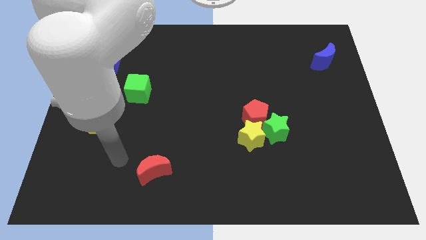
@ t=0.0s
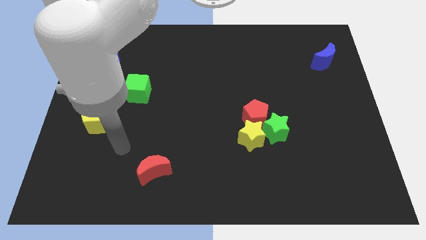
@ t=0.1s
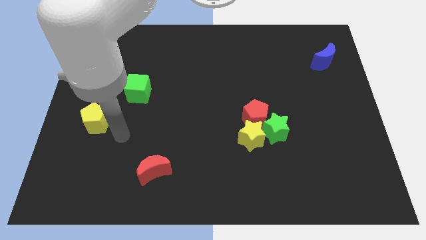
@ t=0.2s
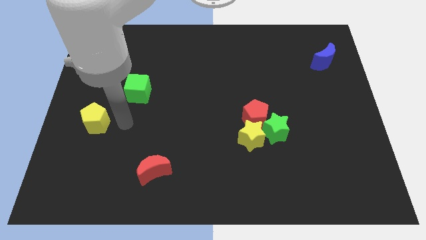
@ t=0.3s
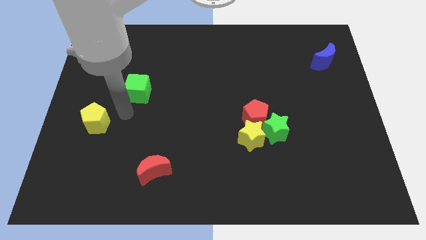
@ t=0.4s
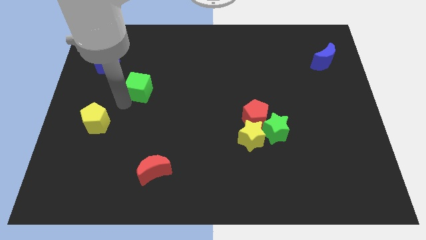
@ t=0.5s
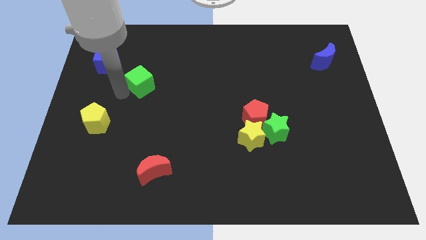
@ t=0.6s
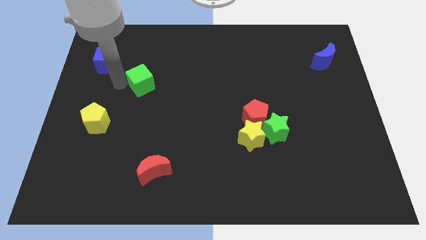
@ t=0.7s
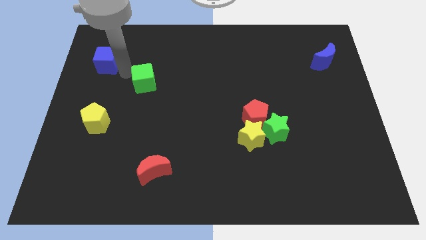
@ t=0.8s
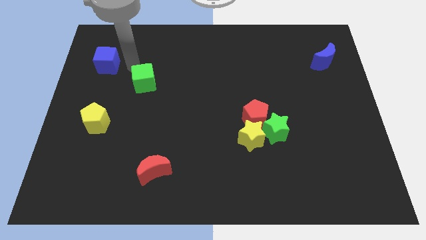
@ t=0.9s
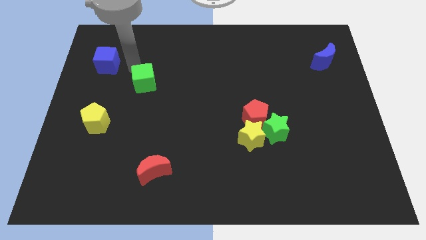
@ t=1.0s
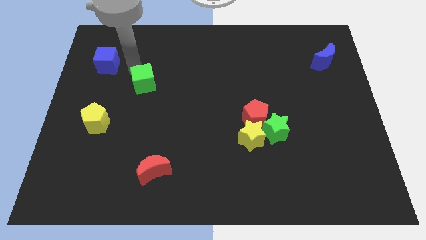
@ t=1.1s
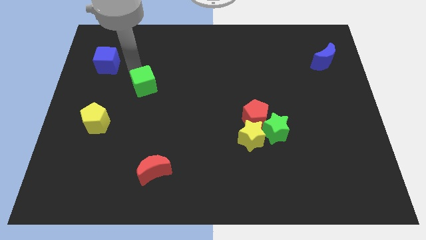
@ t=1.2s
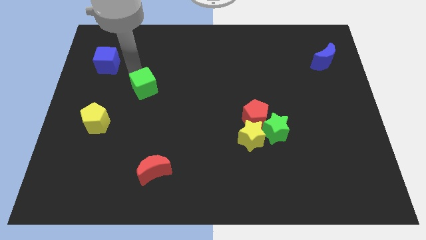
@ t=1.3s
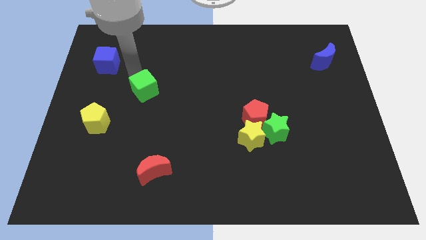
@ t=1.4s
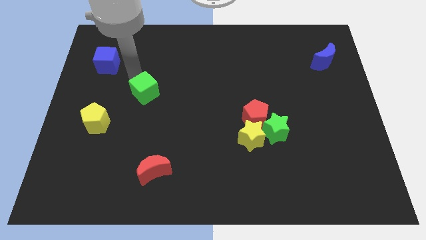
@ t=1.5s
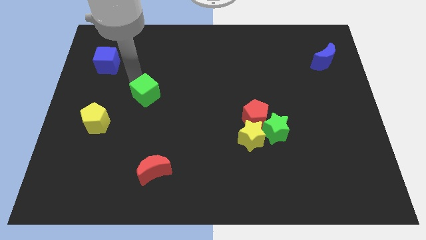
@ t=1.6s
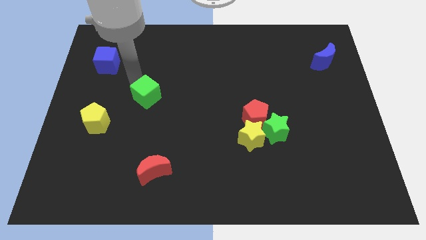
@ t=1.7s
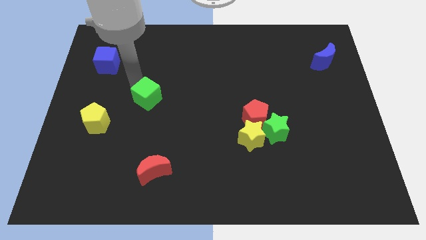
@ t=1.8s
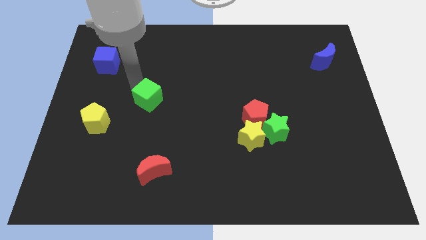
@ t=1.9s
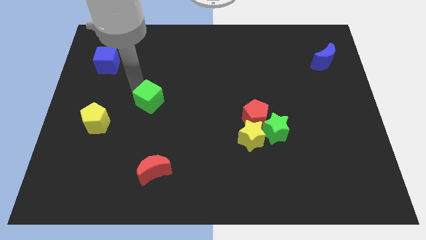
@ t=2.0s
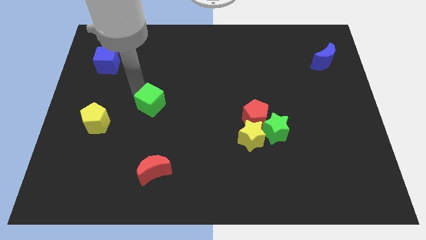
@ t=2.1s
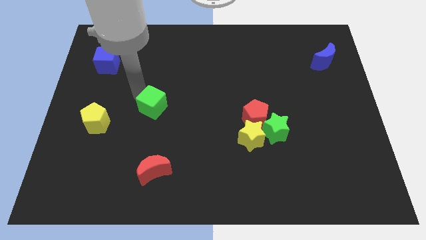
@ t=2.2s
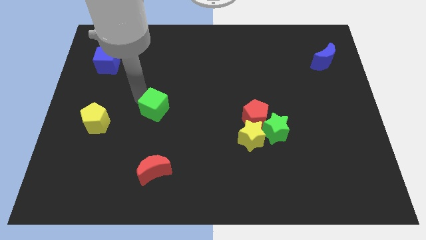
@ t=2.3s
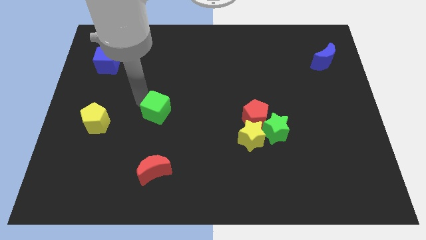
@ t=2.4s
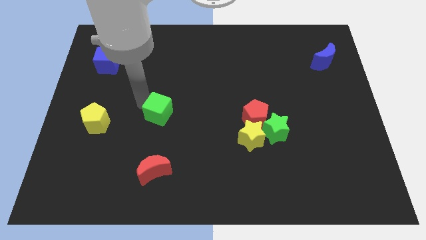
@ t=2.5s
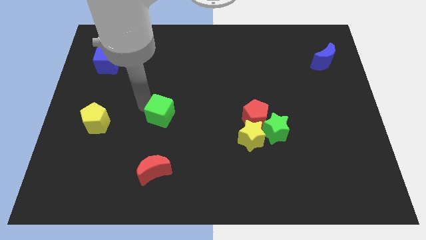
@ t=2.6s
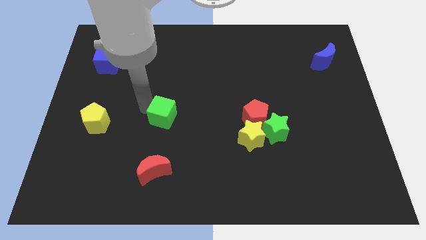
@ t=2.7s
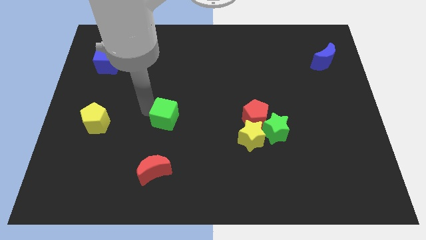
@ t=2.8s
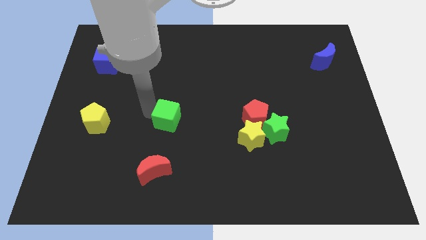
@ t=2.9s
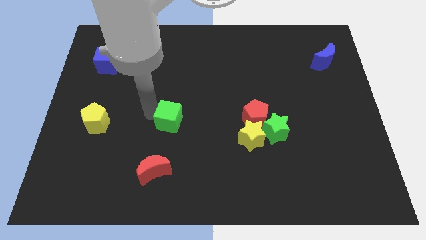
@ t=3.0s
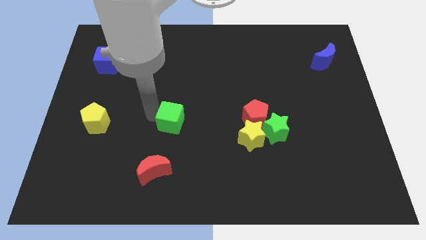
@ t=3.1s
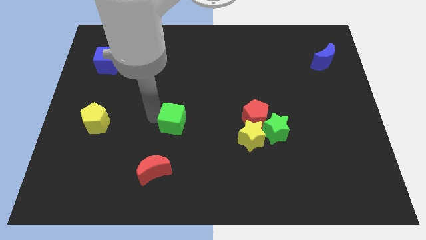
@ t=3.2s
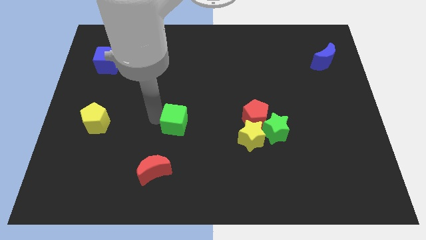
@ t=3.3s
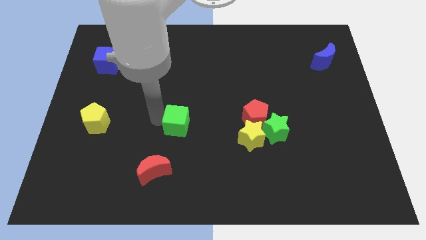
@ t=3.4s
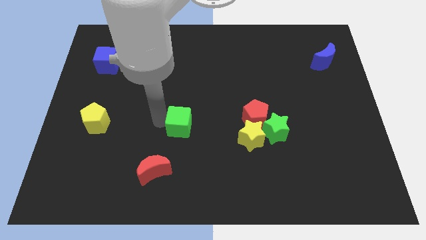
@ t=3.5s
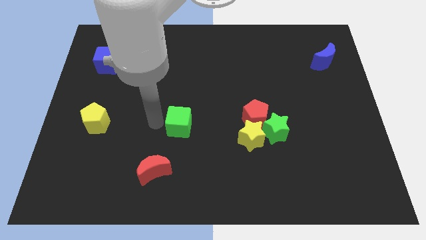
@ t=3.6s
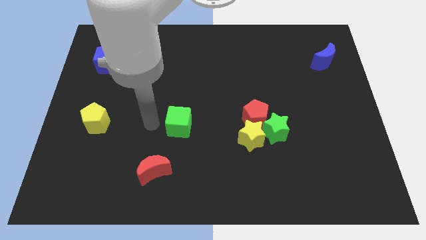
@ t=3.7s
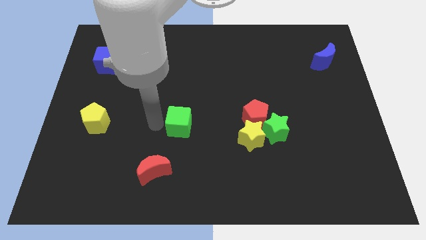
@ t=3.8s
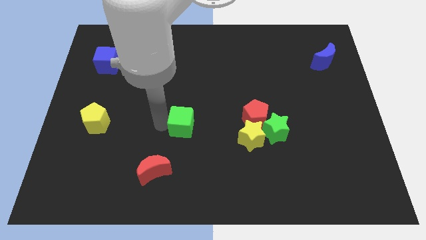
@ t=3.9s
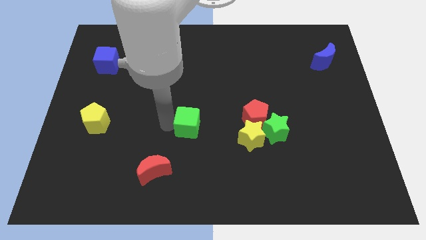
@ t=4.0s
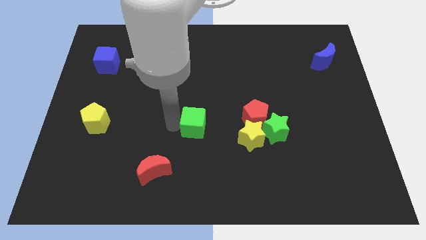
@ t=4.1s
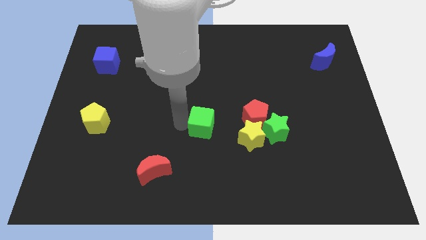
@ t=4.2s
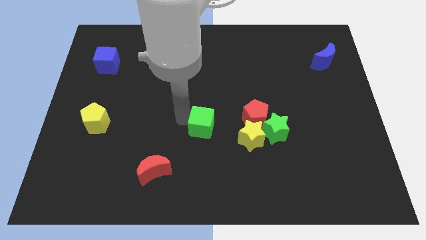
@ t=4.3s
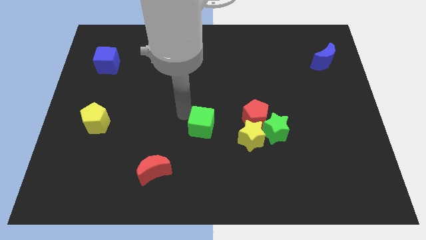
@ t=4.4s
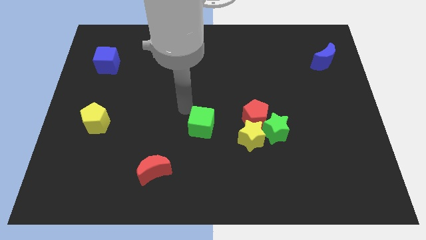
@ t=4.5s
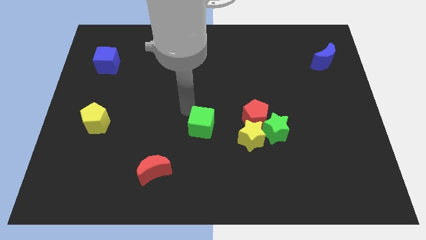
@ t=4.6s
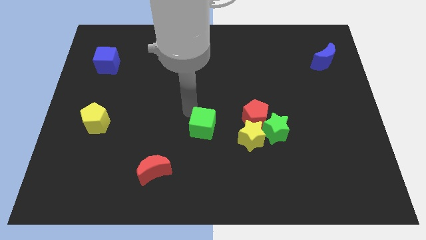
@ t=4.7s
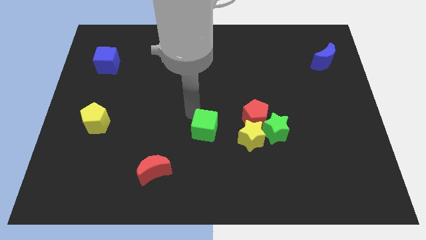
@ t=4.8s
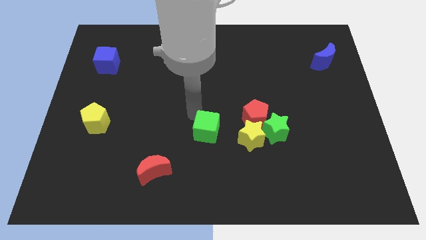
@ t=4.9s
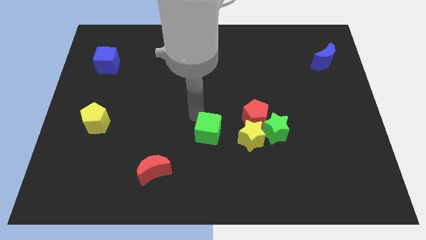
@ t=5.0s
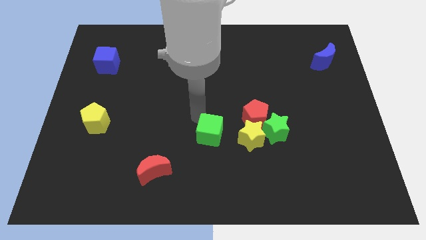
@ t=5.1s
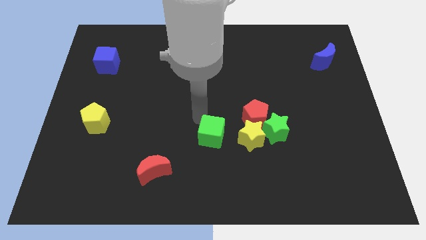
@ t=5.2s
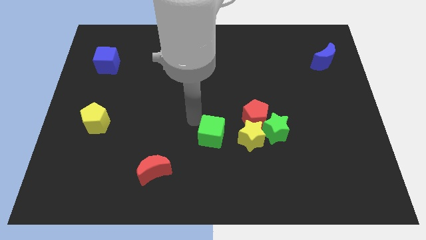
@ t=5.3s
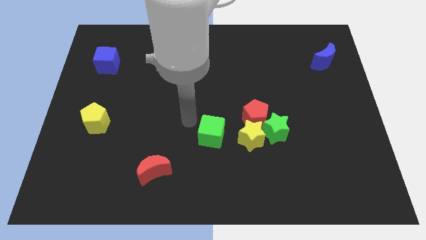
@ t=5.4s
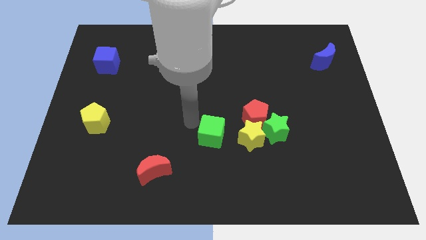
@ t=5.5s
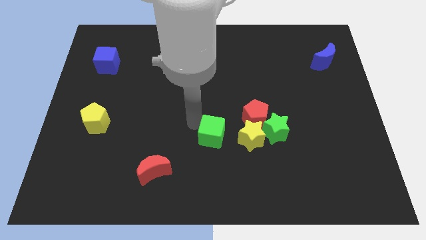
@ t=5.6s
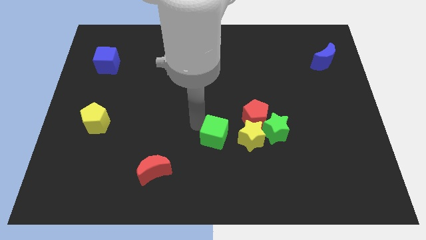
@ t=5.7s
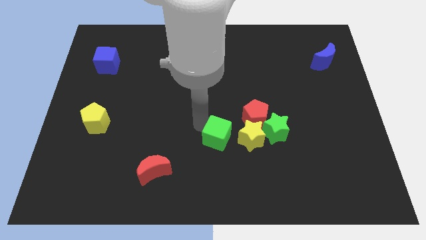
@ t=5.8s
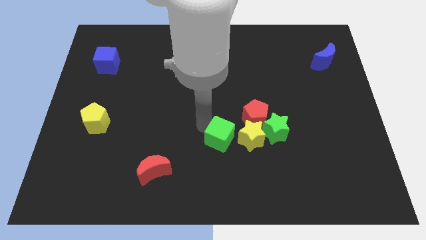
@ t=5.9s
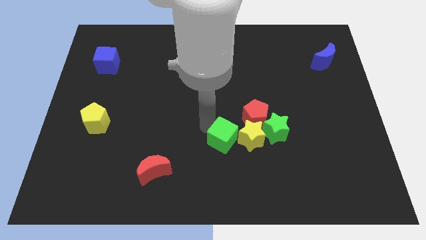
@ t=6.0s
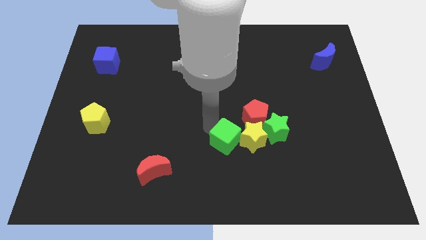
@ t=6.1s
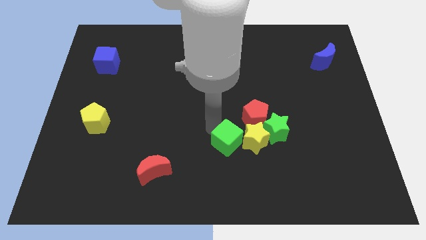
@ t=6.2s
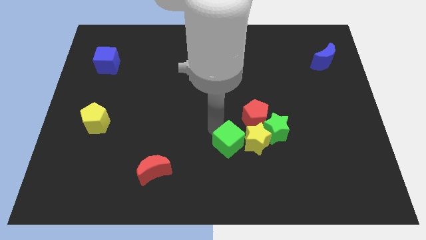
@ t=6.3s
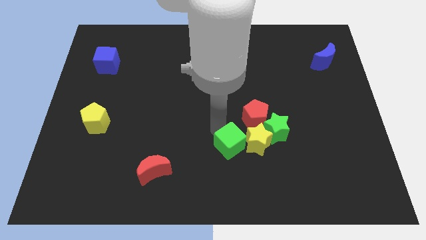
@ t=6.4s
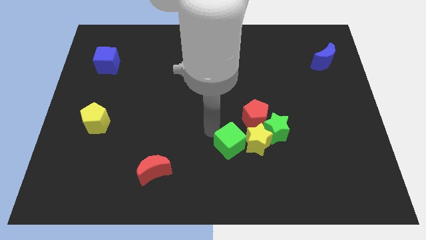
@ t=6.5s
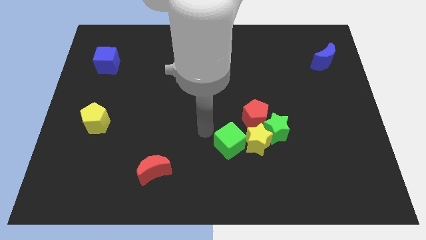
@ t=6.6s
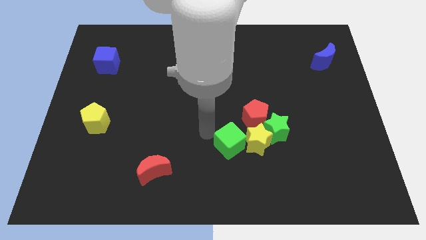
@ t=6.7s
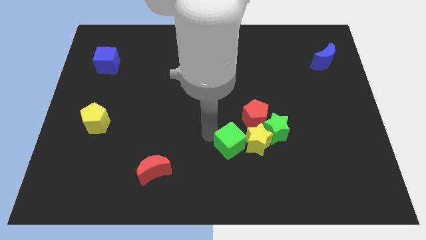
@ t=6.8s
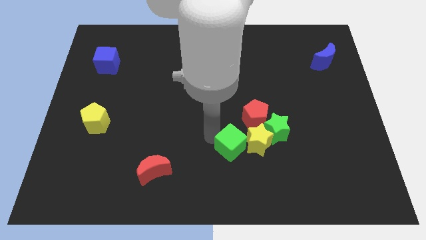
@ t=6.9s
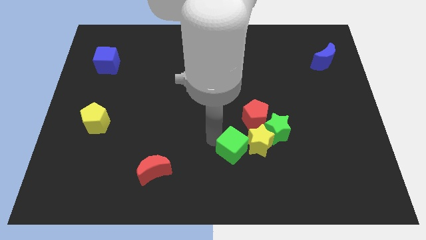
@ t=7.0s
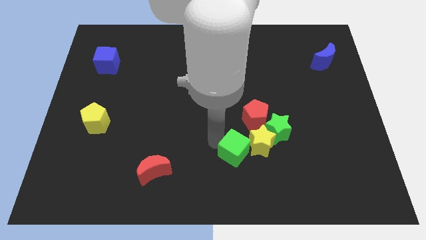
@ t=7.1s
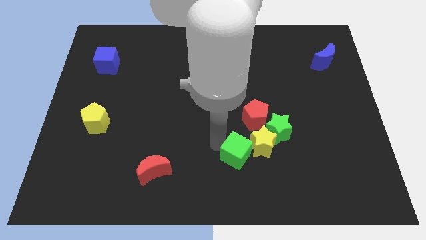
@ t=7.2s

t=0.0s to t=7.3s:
slide the green cube to the bottom of the red pentagon
